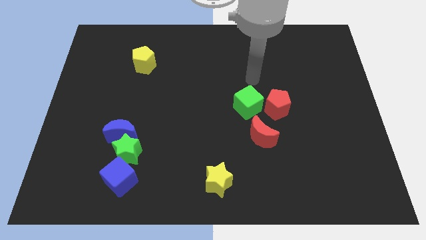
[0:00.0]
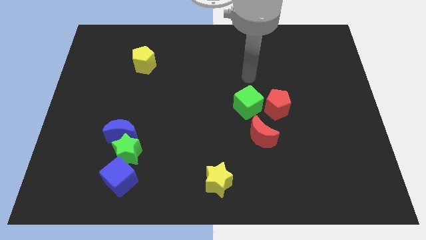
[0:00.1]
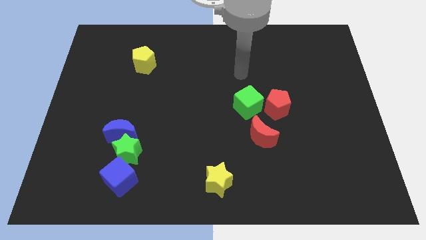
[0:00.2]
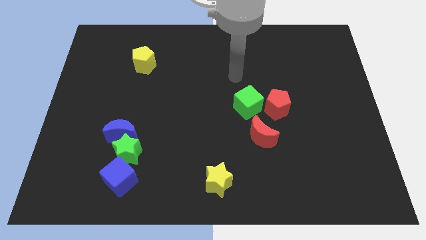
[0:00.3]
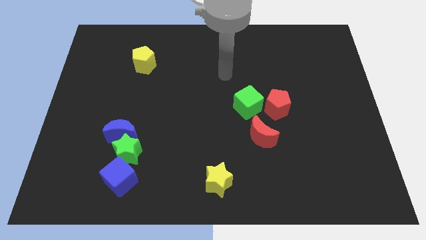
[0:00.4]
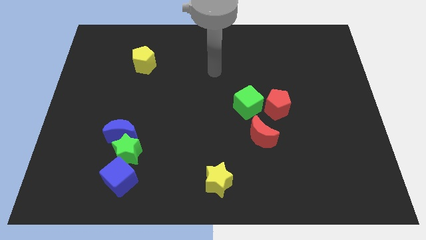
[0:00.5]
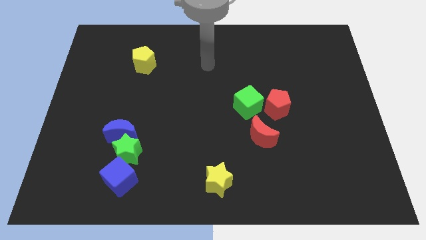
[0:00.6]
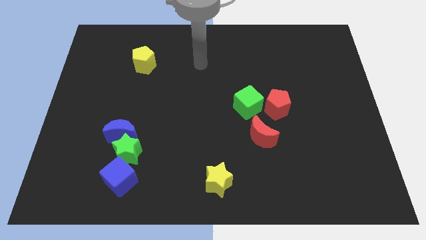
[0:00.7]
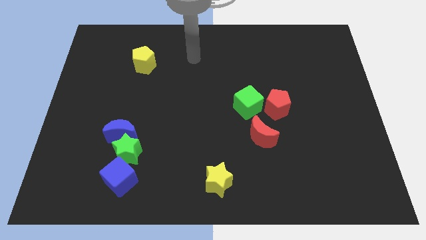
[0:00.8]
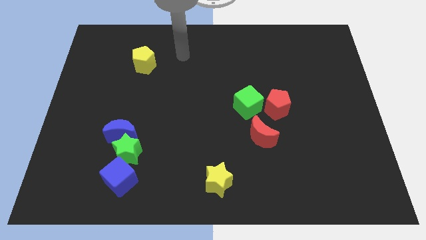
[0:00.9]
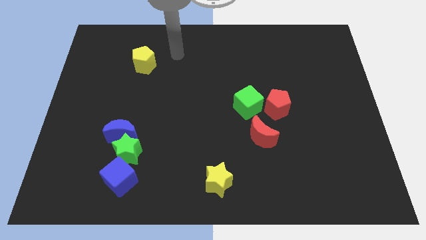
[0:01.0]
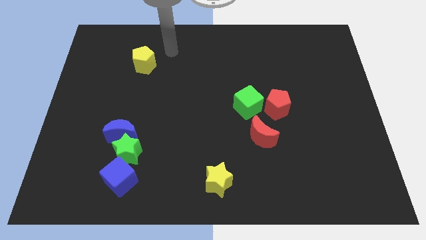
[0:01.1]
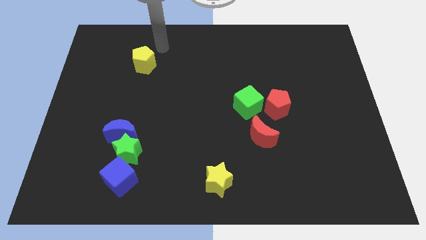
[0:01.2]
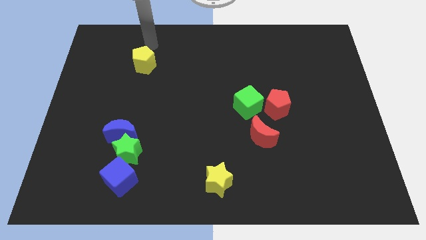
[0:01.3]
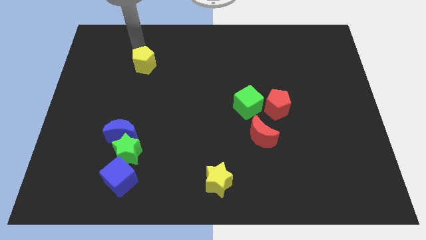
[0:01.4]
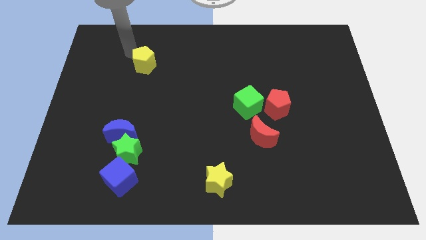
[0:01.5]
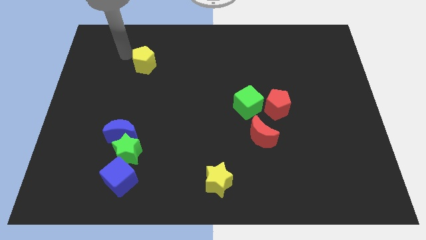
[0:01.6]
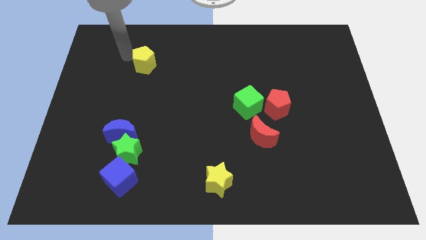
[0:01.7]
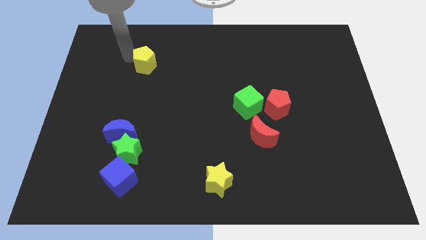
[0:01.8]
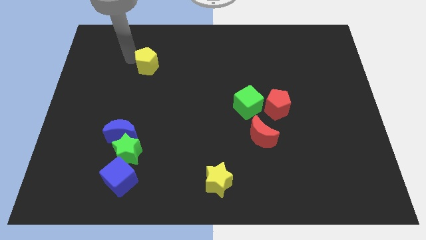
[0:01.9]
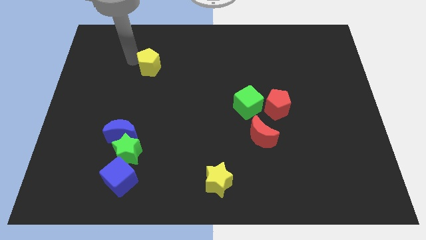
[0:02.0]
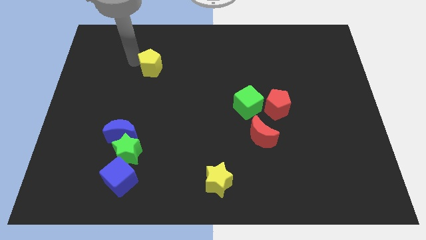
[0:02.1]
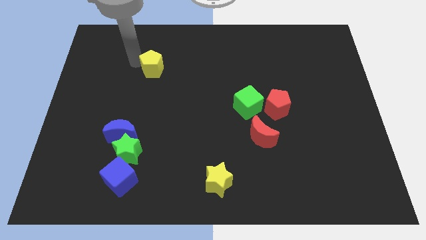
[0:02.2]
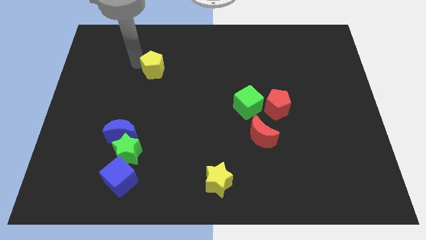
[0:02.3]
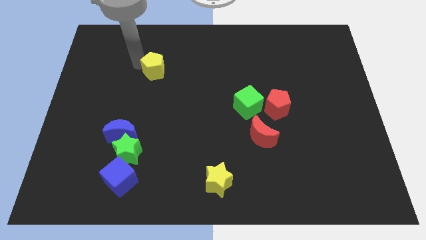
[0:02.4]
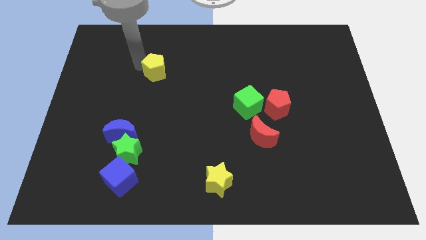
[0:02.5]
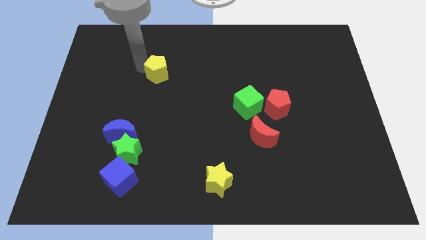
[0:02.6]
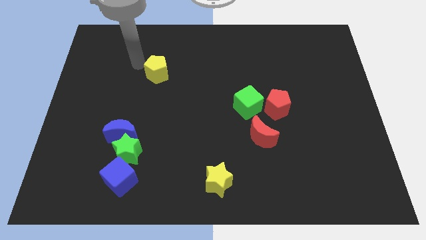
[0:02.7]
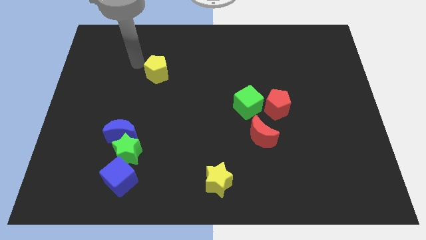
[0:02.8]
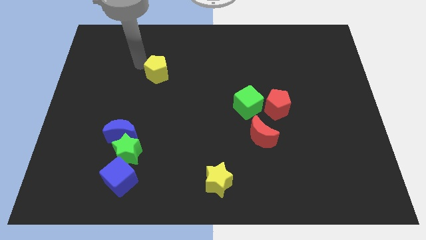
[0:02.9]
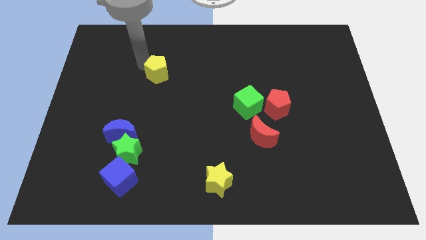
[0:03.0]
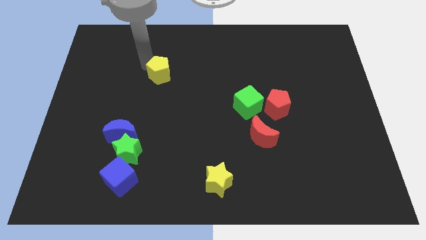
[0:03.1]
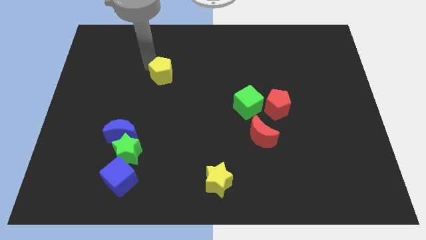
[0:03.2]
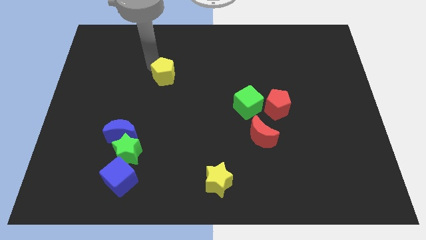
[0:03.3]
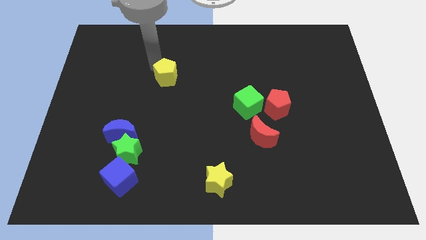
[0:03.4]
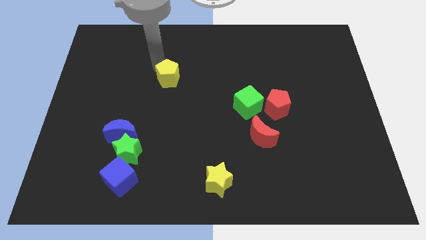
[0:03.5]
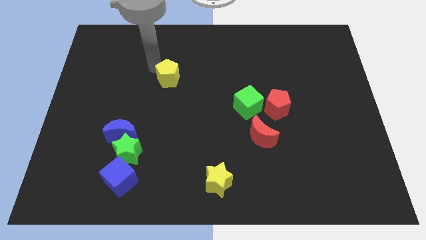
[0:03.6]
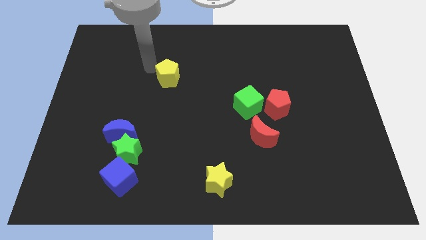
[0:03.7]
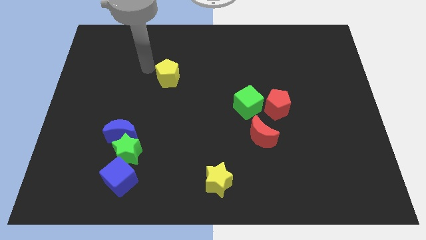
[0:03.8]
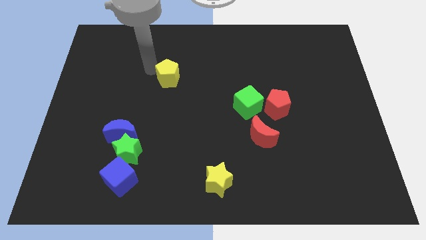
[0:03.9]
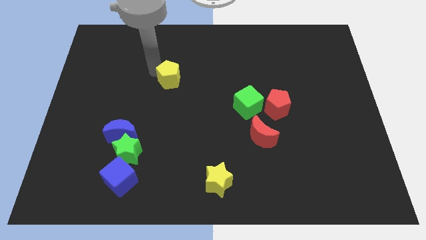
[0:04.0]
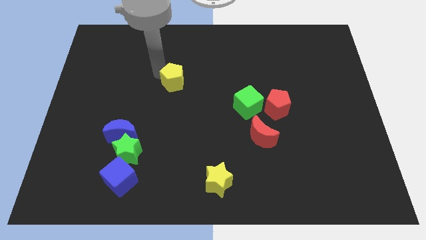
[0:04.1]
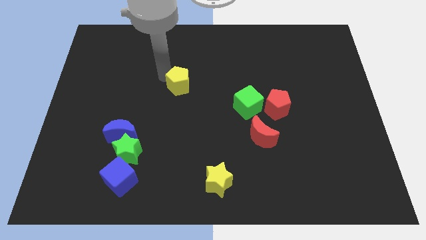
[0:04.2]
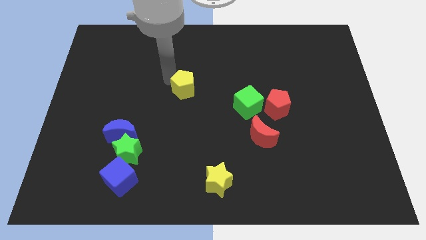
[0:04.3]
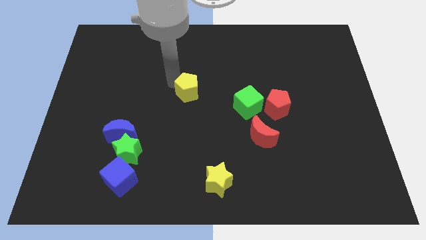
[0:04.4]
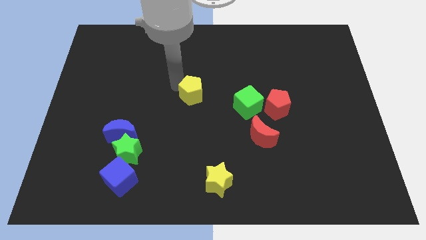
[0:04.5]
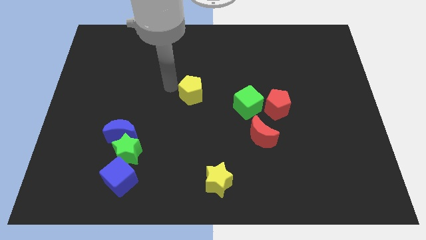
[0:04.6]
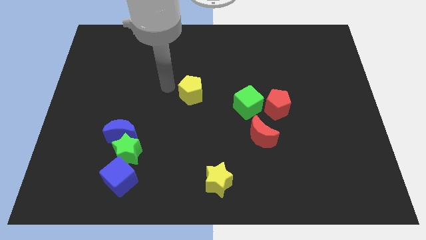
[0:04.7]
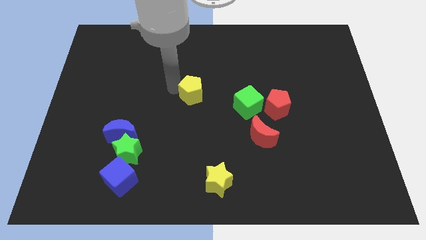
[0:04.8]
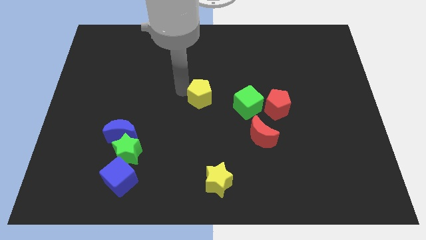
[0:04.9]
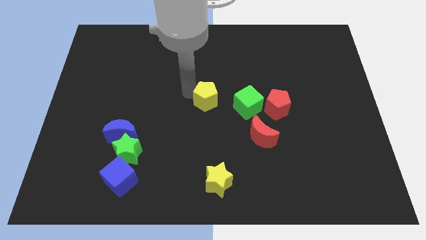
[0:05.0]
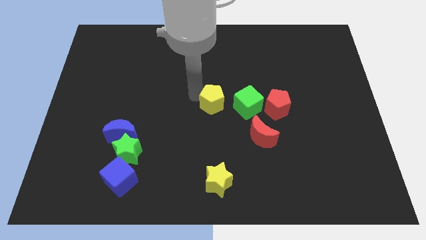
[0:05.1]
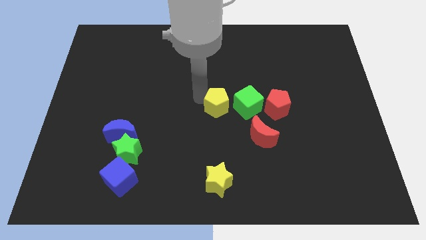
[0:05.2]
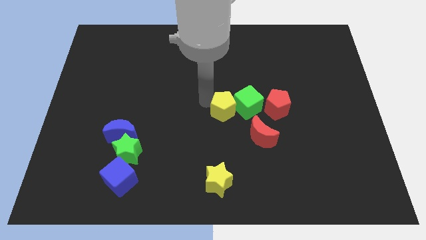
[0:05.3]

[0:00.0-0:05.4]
slide the yellow pentagon to the green cube

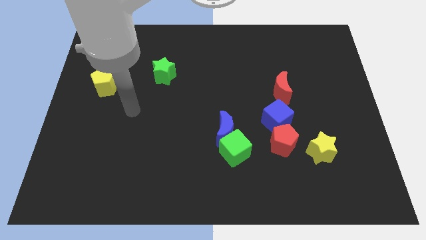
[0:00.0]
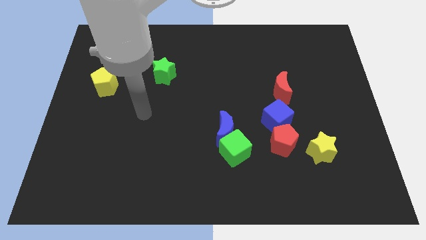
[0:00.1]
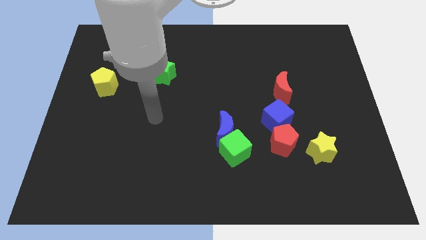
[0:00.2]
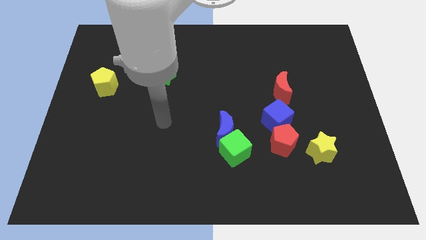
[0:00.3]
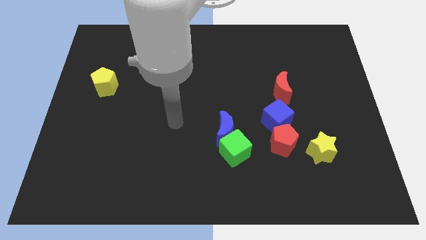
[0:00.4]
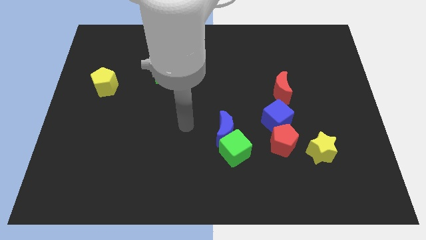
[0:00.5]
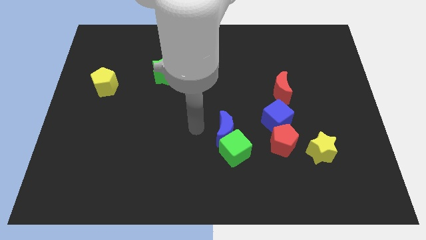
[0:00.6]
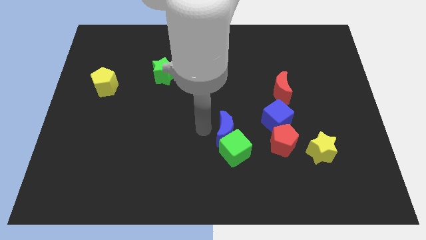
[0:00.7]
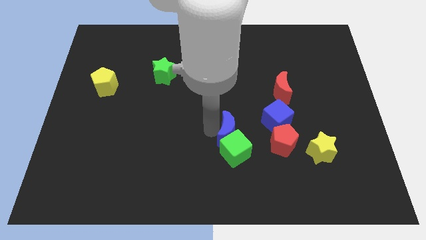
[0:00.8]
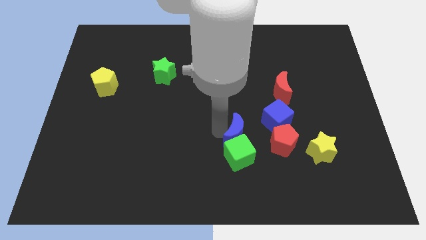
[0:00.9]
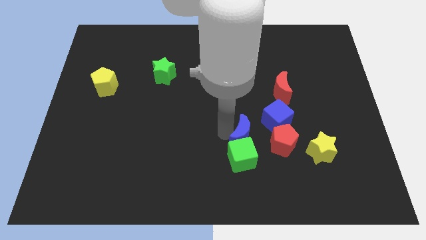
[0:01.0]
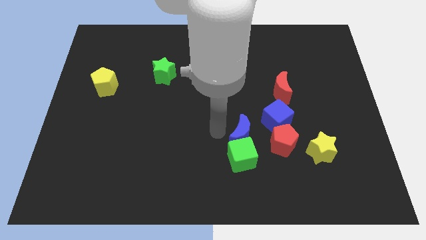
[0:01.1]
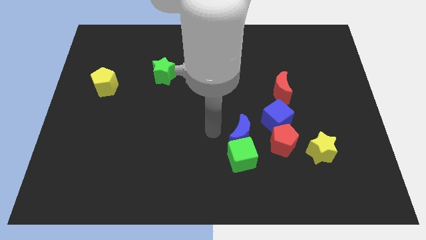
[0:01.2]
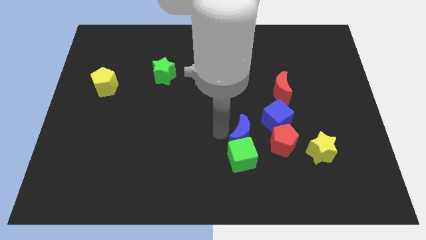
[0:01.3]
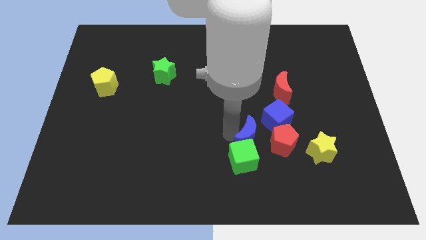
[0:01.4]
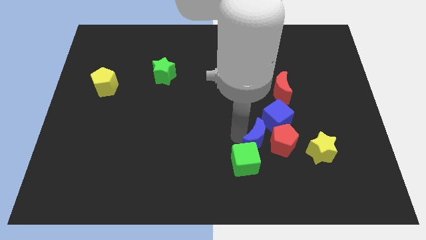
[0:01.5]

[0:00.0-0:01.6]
slide the blue moon next to the red pentagon

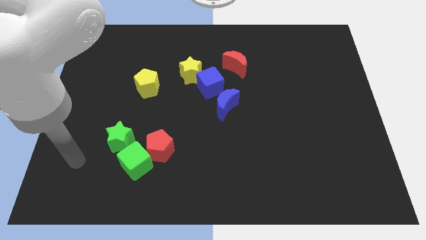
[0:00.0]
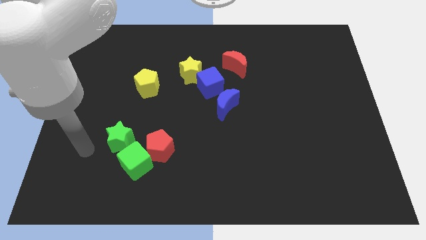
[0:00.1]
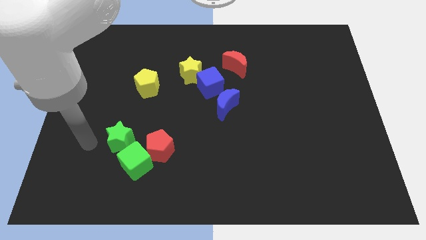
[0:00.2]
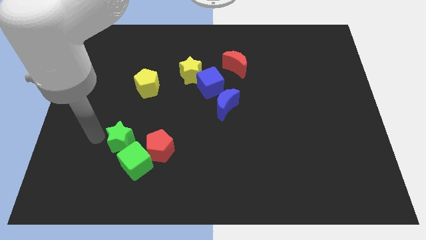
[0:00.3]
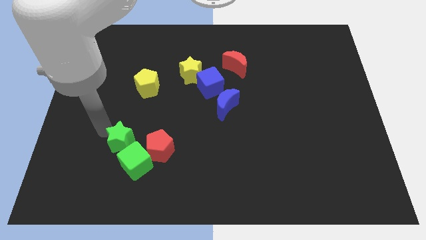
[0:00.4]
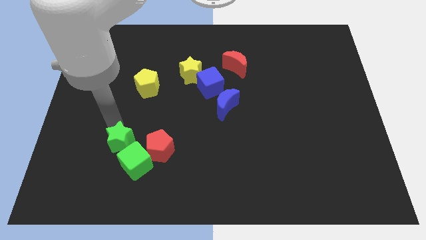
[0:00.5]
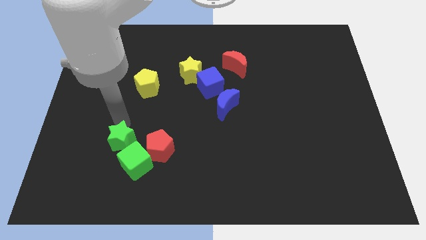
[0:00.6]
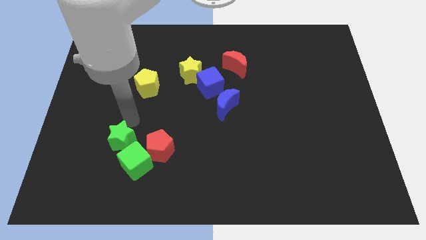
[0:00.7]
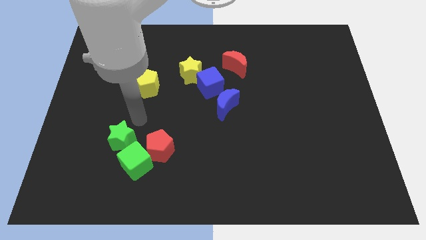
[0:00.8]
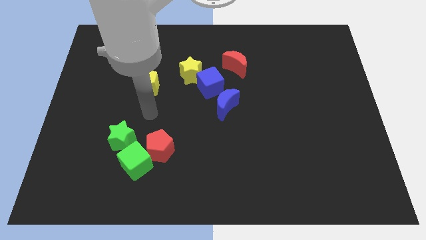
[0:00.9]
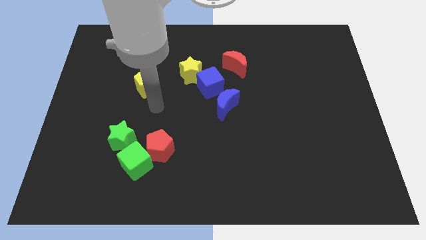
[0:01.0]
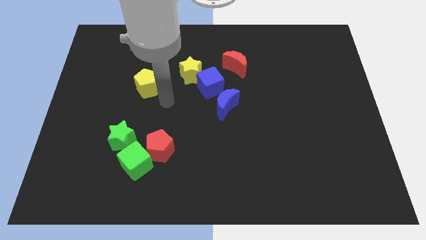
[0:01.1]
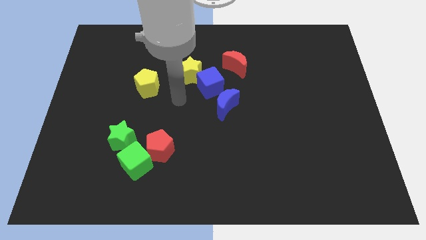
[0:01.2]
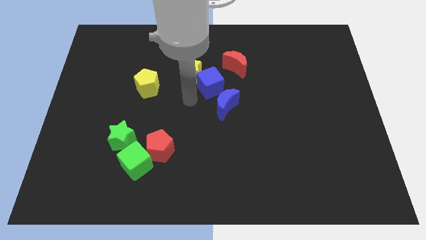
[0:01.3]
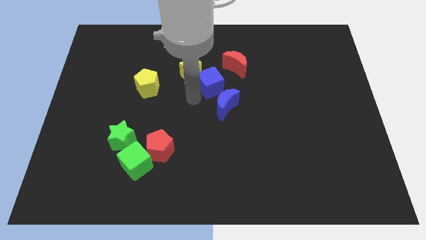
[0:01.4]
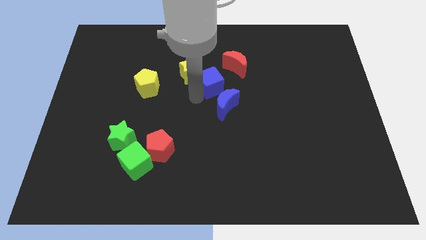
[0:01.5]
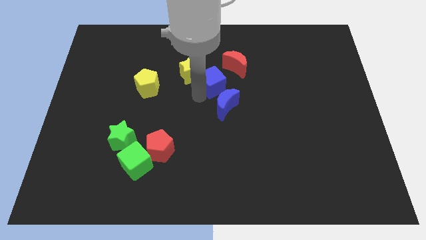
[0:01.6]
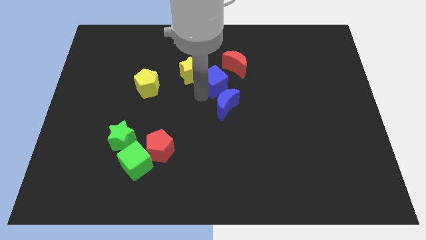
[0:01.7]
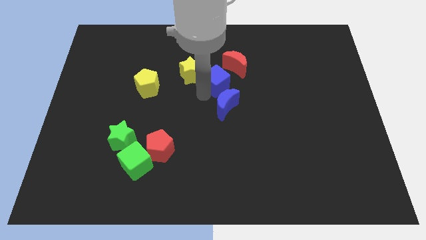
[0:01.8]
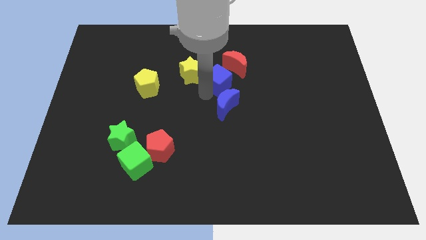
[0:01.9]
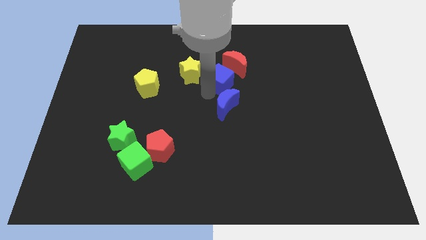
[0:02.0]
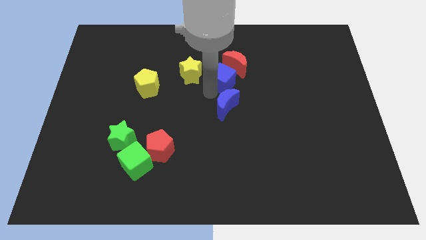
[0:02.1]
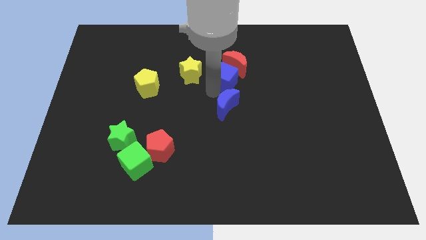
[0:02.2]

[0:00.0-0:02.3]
move the blue cube to the red moon
